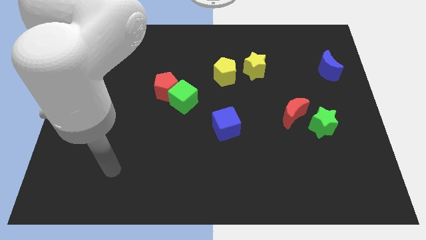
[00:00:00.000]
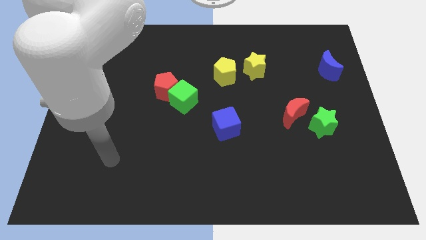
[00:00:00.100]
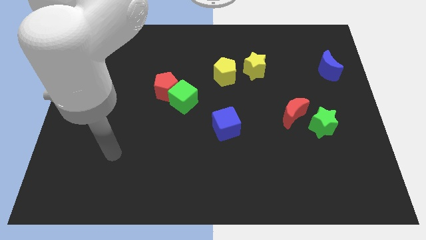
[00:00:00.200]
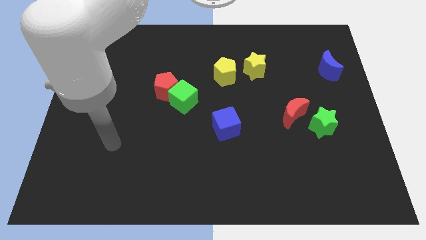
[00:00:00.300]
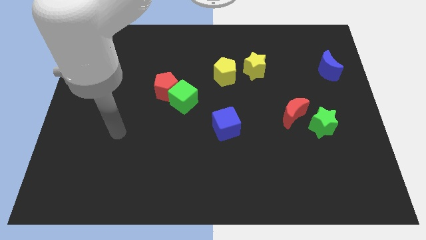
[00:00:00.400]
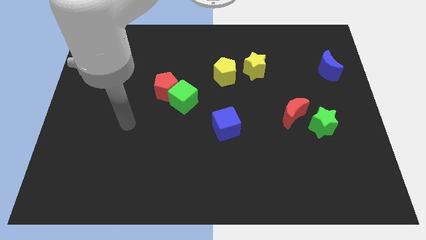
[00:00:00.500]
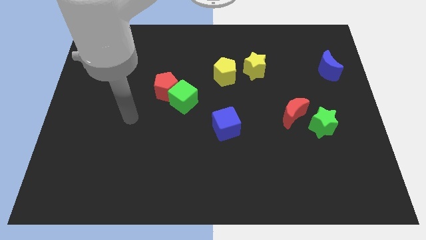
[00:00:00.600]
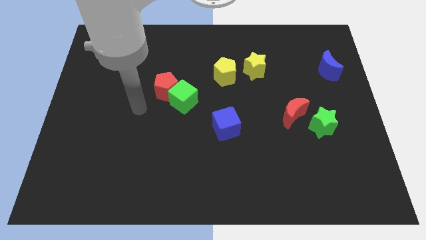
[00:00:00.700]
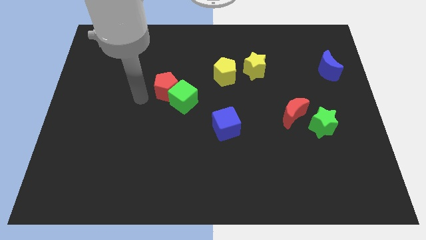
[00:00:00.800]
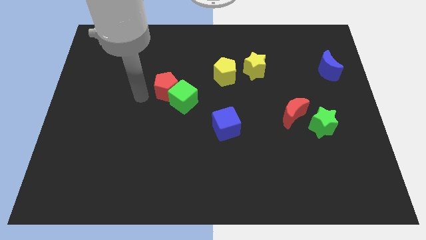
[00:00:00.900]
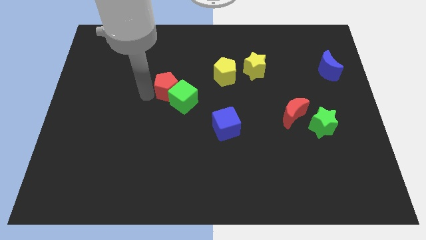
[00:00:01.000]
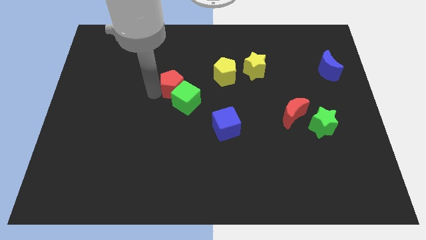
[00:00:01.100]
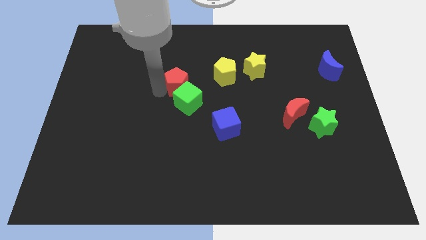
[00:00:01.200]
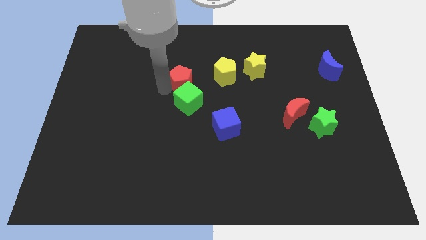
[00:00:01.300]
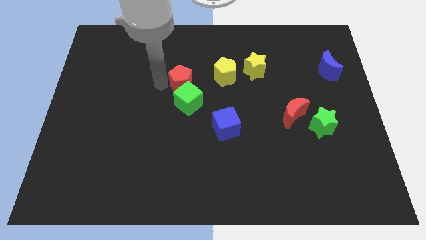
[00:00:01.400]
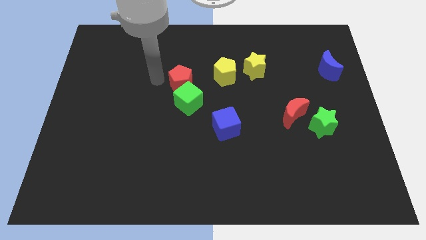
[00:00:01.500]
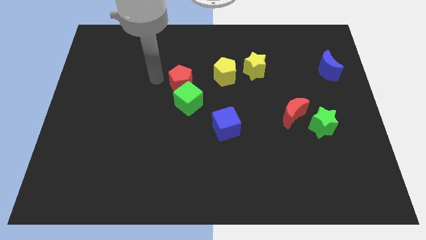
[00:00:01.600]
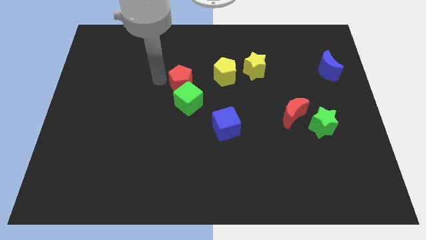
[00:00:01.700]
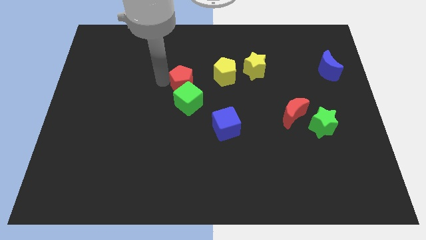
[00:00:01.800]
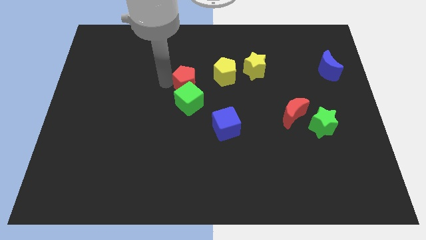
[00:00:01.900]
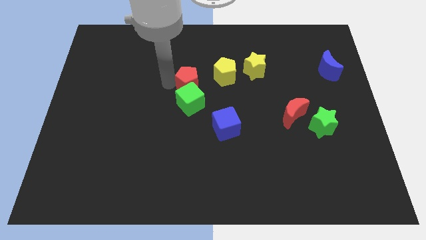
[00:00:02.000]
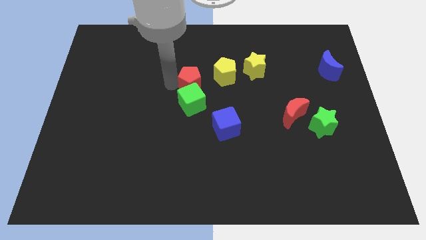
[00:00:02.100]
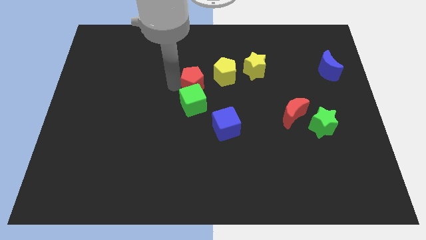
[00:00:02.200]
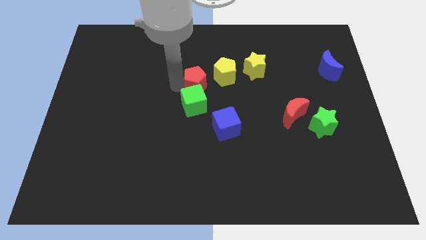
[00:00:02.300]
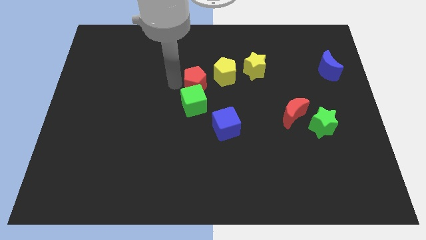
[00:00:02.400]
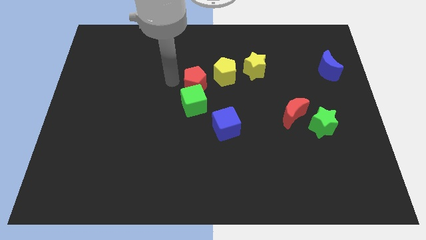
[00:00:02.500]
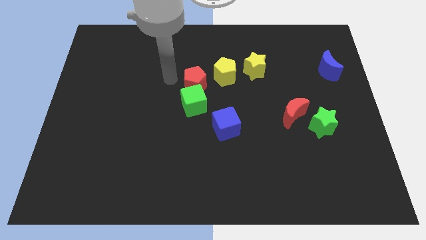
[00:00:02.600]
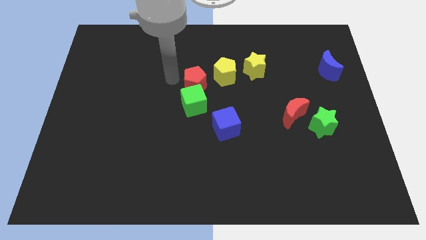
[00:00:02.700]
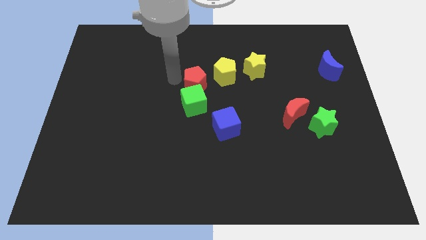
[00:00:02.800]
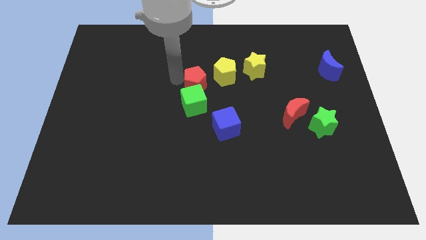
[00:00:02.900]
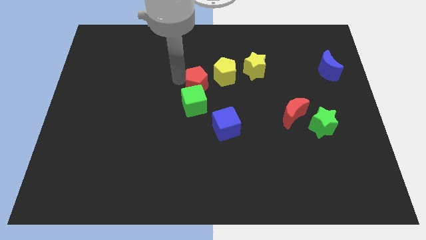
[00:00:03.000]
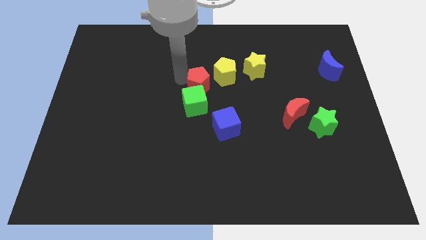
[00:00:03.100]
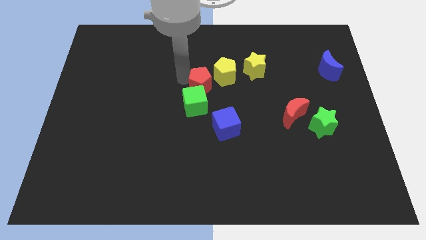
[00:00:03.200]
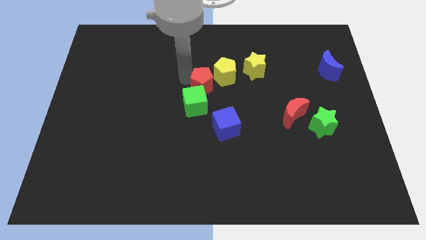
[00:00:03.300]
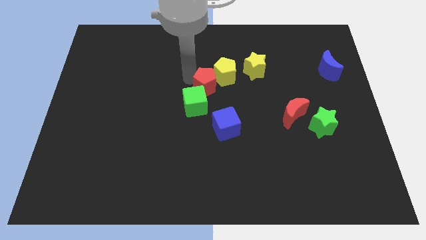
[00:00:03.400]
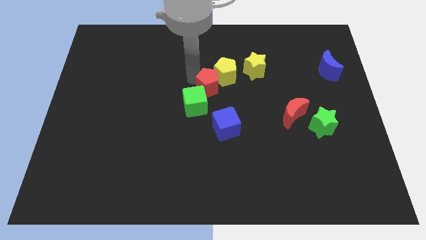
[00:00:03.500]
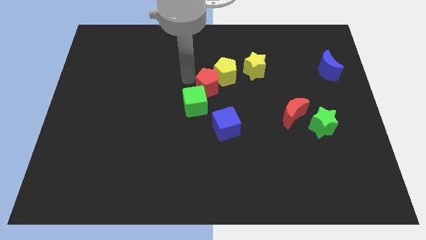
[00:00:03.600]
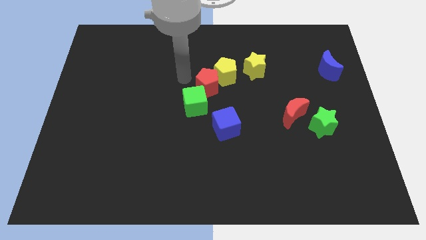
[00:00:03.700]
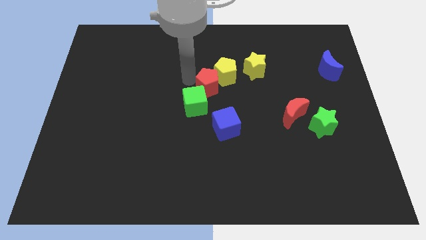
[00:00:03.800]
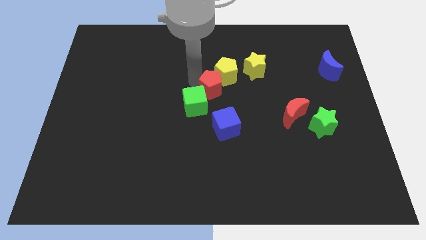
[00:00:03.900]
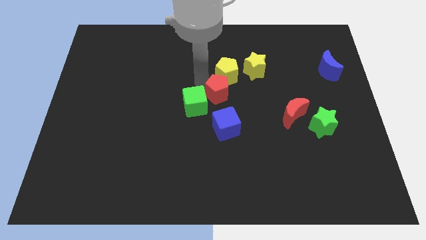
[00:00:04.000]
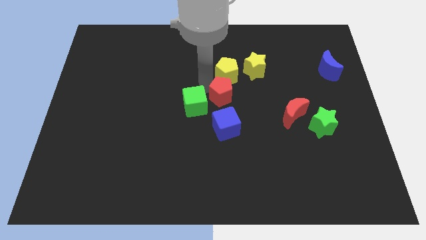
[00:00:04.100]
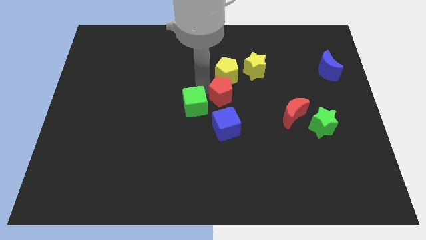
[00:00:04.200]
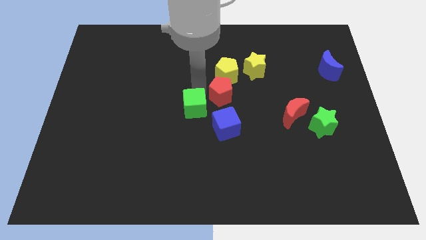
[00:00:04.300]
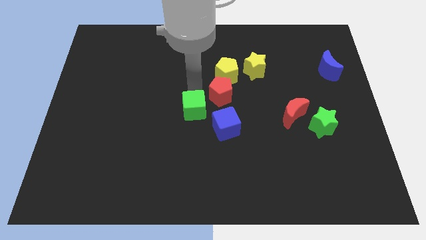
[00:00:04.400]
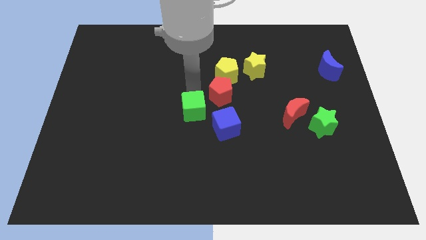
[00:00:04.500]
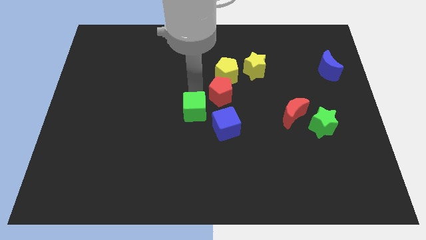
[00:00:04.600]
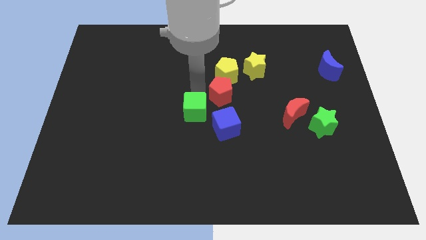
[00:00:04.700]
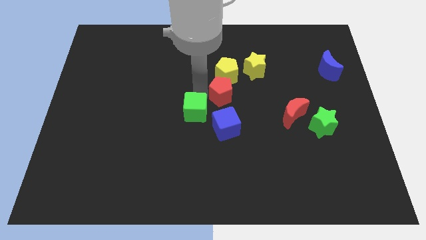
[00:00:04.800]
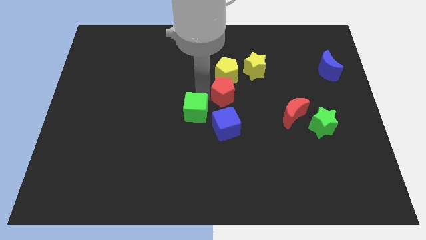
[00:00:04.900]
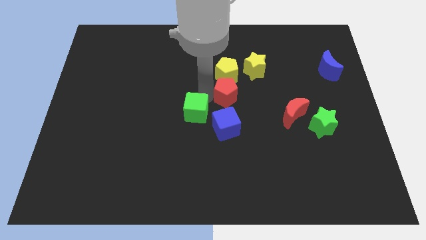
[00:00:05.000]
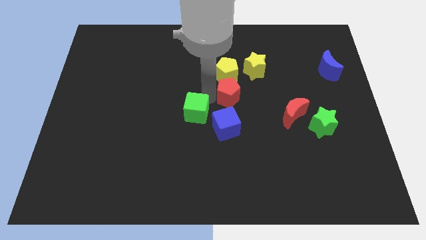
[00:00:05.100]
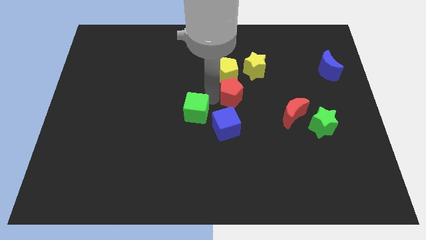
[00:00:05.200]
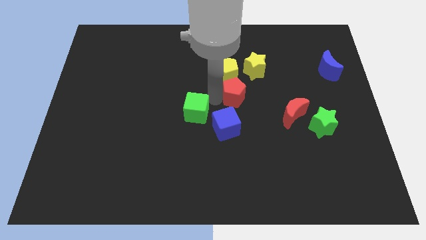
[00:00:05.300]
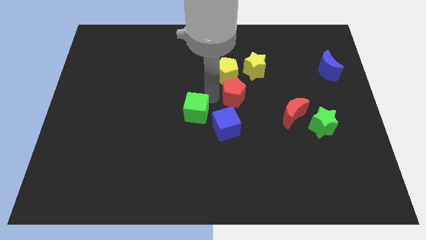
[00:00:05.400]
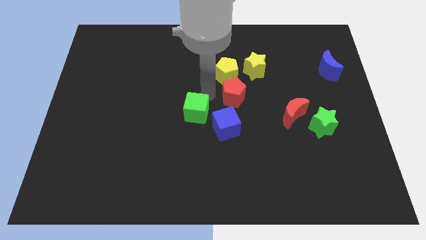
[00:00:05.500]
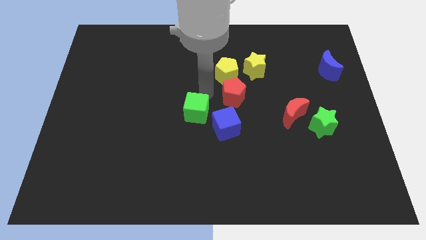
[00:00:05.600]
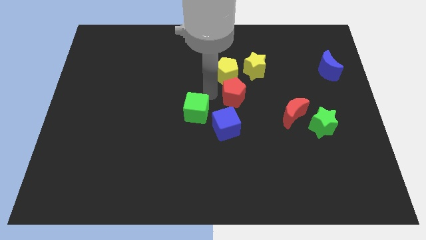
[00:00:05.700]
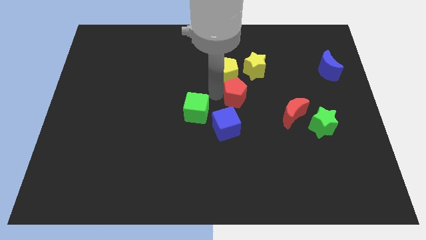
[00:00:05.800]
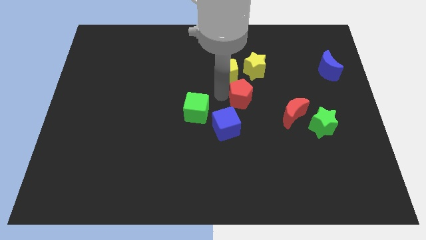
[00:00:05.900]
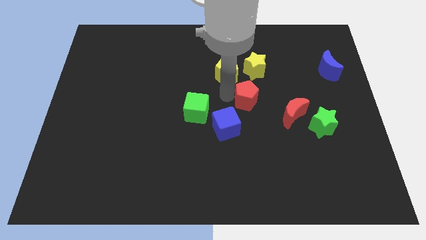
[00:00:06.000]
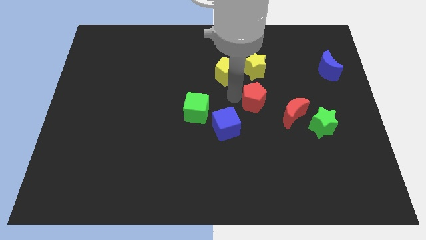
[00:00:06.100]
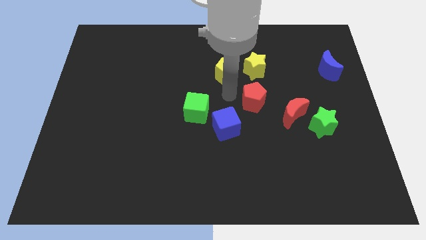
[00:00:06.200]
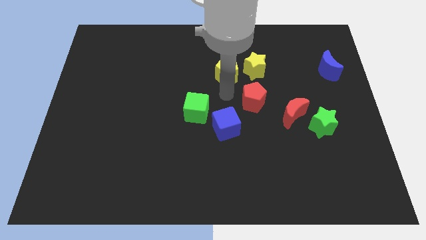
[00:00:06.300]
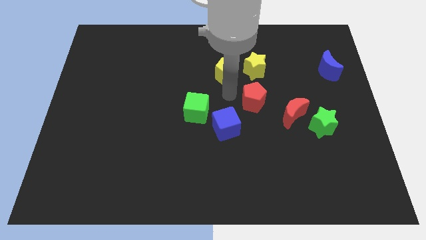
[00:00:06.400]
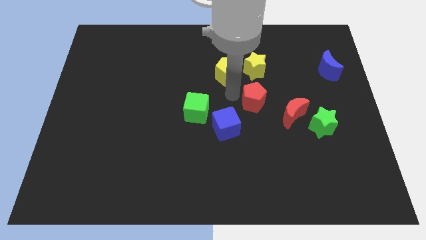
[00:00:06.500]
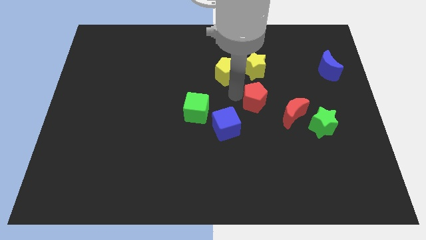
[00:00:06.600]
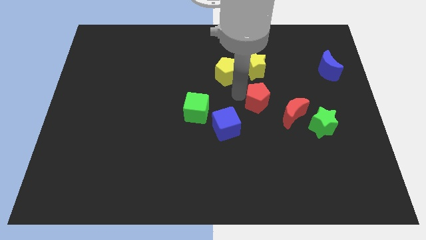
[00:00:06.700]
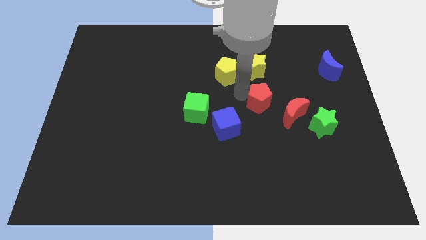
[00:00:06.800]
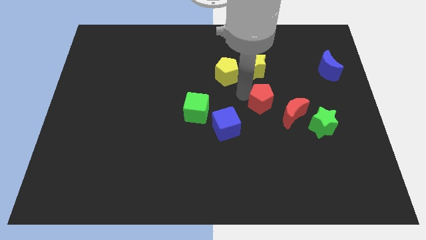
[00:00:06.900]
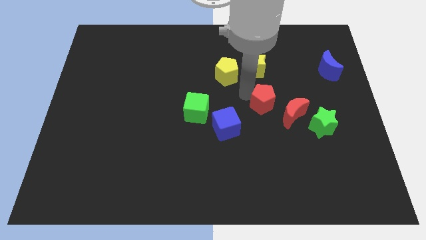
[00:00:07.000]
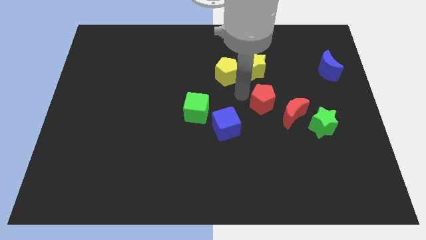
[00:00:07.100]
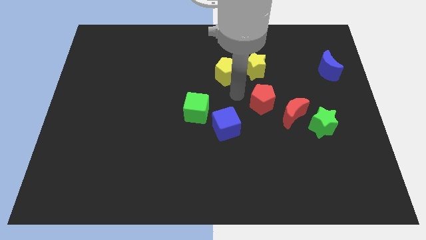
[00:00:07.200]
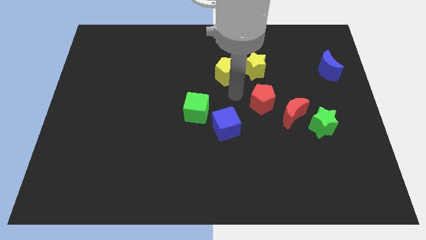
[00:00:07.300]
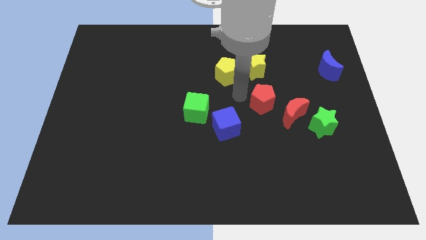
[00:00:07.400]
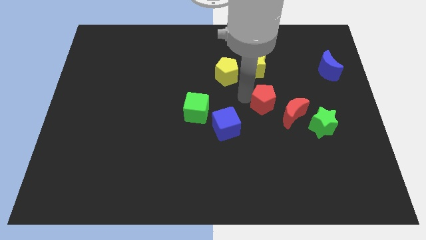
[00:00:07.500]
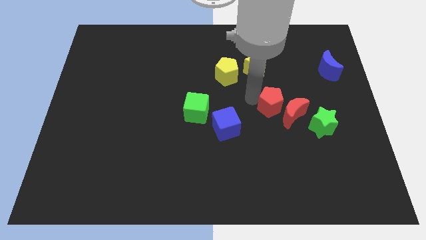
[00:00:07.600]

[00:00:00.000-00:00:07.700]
put the red pentagon towards the red moon
